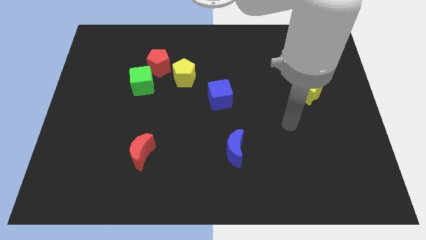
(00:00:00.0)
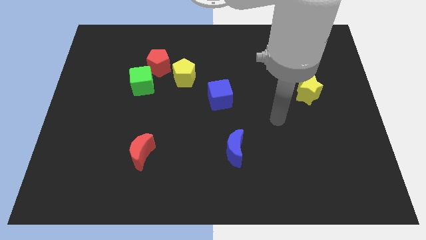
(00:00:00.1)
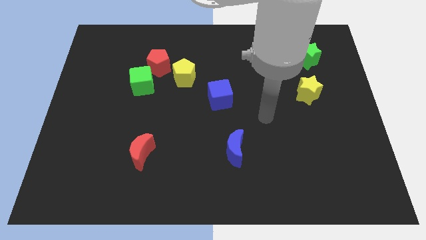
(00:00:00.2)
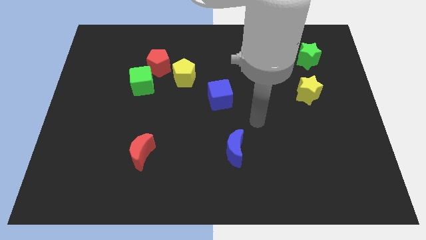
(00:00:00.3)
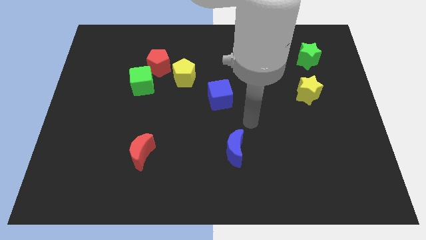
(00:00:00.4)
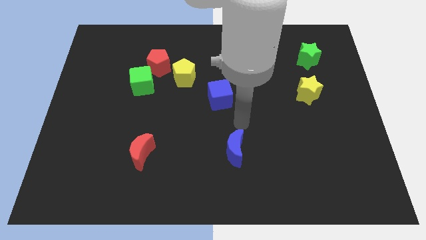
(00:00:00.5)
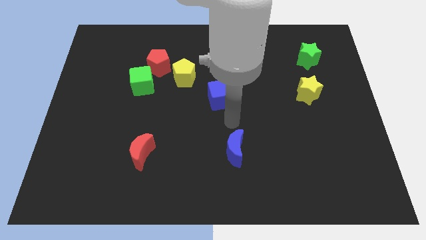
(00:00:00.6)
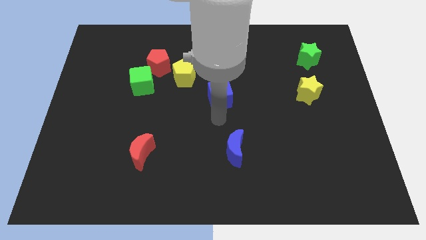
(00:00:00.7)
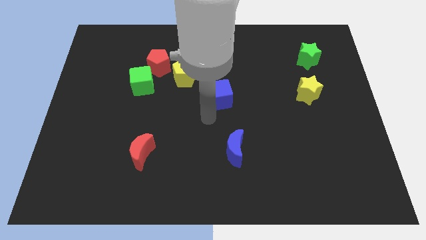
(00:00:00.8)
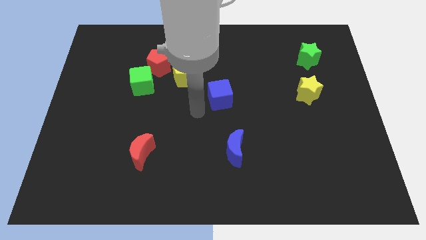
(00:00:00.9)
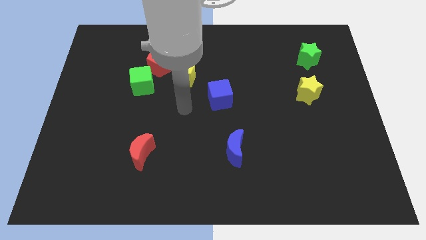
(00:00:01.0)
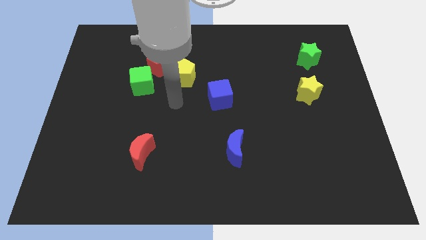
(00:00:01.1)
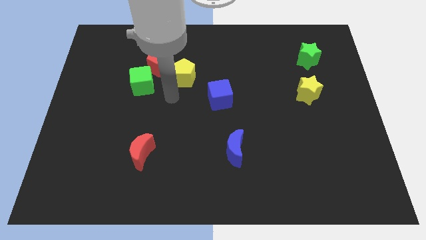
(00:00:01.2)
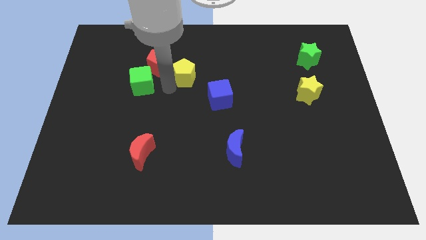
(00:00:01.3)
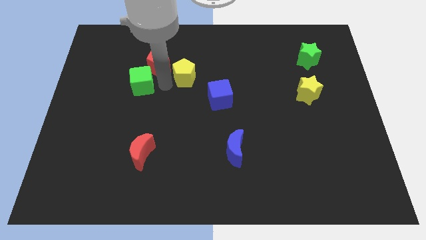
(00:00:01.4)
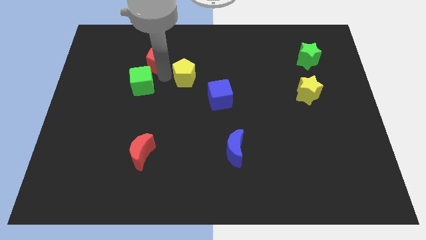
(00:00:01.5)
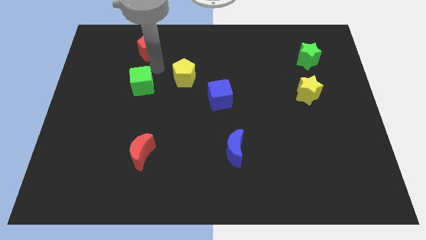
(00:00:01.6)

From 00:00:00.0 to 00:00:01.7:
pull the green cube apart from the red pentagon

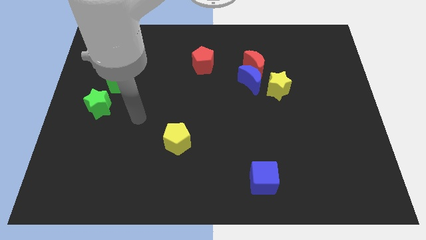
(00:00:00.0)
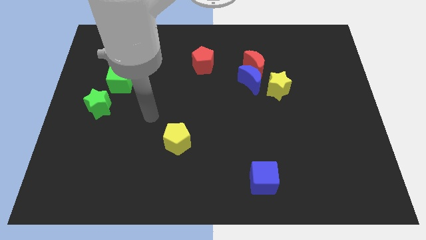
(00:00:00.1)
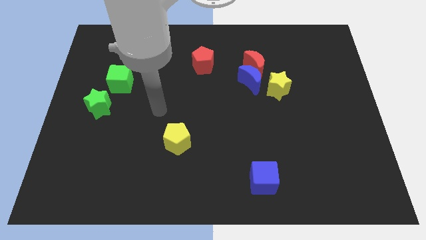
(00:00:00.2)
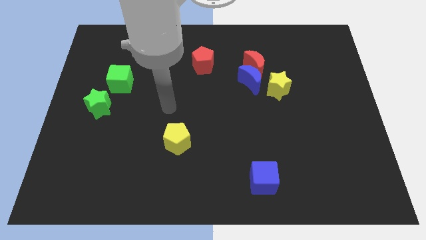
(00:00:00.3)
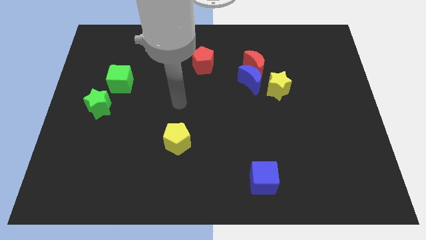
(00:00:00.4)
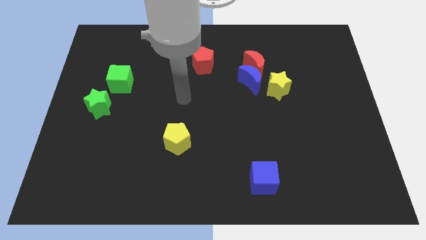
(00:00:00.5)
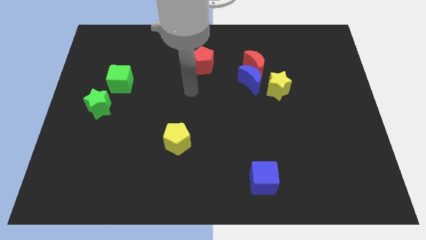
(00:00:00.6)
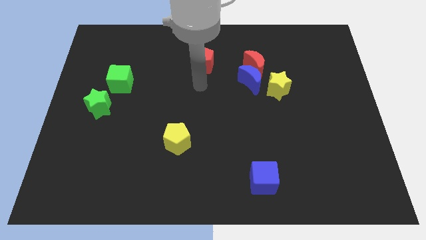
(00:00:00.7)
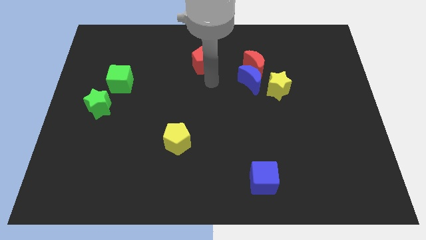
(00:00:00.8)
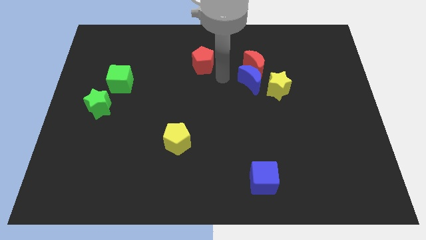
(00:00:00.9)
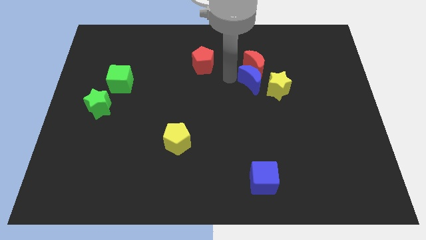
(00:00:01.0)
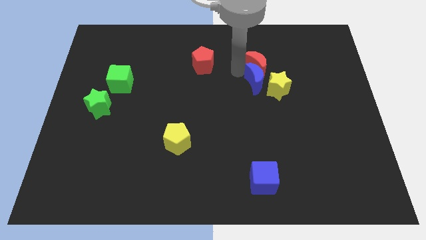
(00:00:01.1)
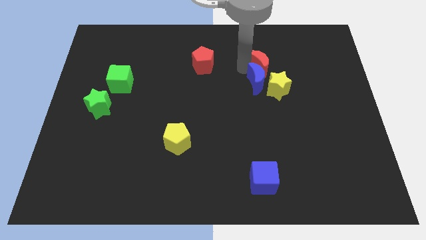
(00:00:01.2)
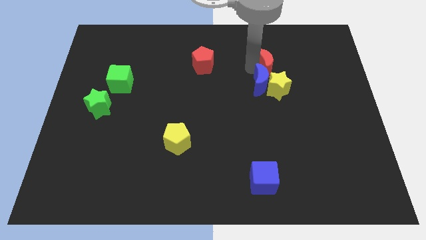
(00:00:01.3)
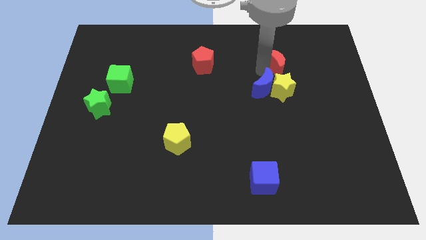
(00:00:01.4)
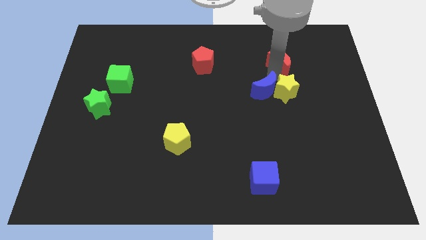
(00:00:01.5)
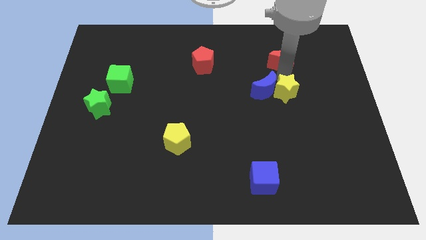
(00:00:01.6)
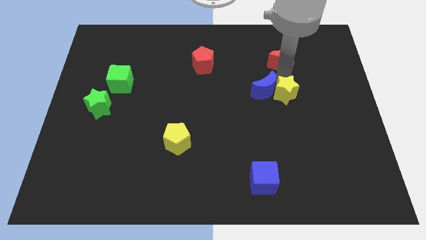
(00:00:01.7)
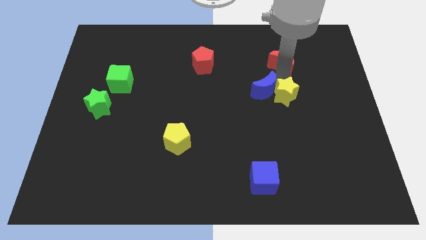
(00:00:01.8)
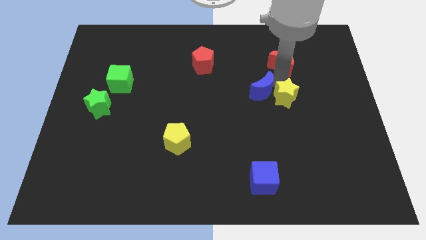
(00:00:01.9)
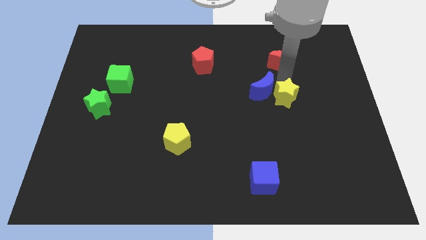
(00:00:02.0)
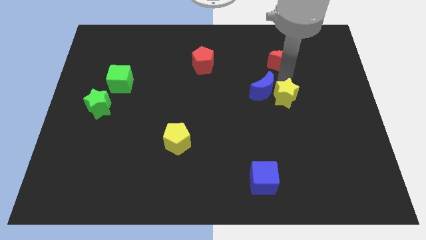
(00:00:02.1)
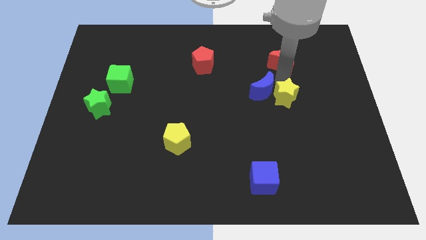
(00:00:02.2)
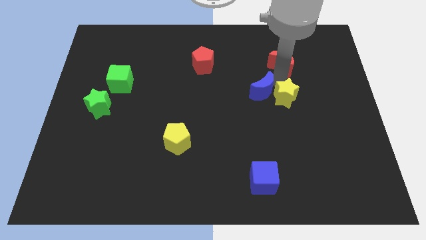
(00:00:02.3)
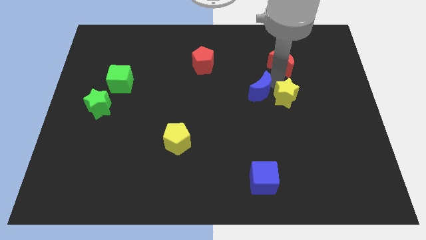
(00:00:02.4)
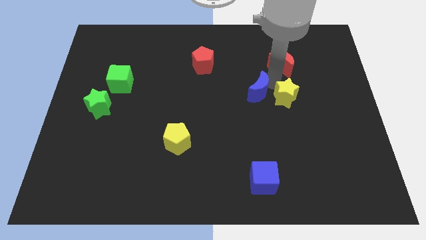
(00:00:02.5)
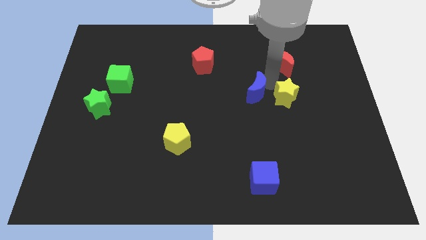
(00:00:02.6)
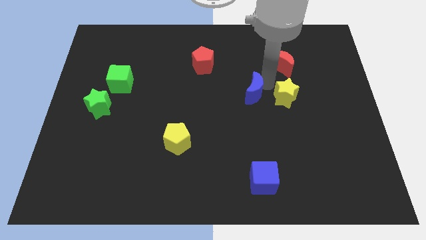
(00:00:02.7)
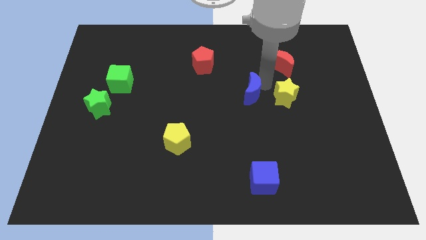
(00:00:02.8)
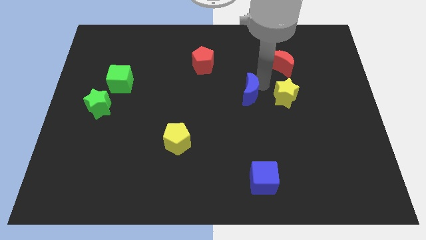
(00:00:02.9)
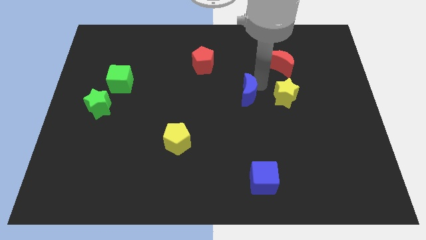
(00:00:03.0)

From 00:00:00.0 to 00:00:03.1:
separate the blue moon from the red moon and yellow star

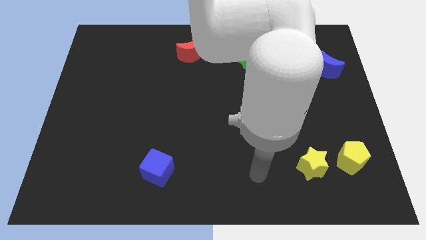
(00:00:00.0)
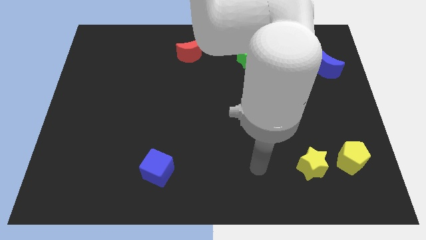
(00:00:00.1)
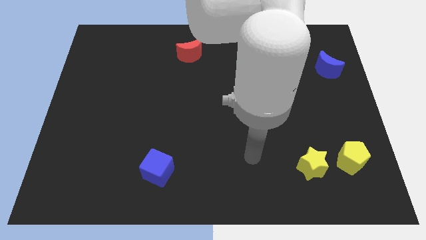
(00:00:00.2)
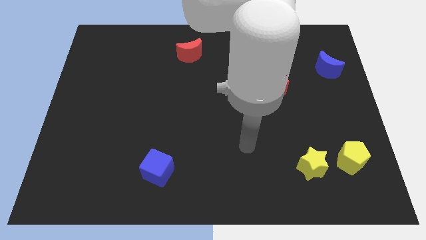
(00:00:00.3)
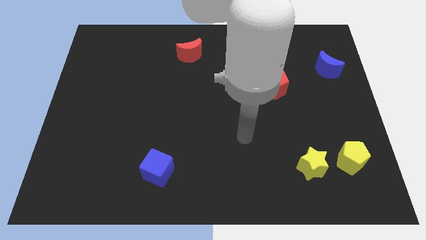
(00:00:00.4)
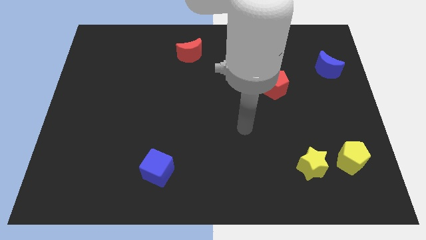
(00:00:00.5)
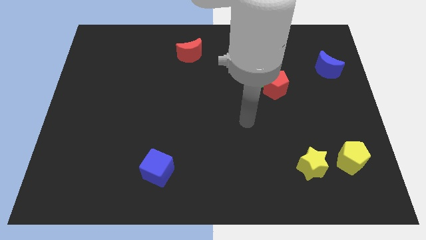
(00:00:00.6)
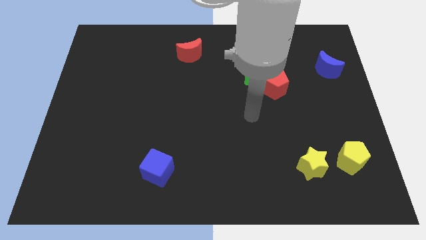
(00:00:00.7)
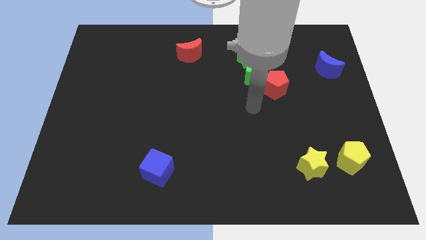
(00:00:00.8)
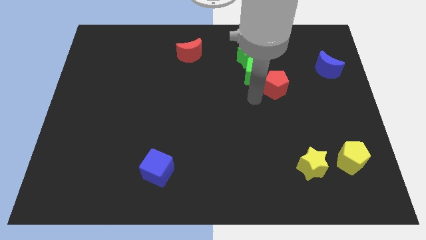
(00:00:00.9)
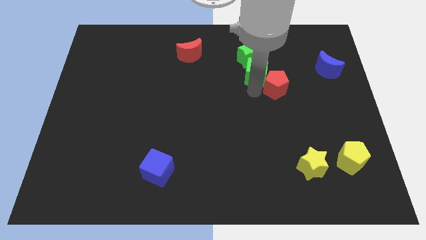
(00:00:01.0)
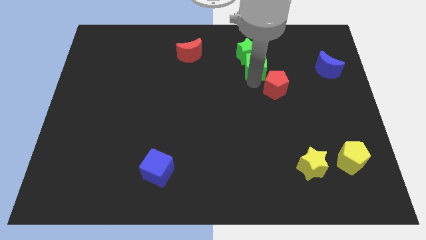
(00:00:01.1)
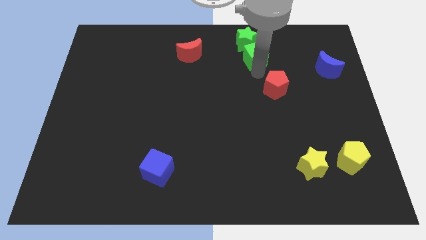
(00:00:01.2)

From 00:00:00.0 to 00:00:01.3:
pull the red pentagon apart from the green cube

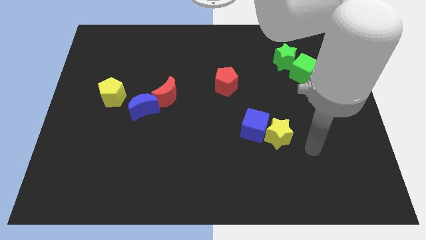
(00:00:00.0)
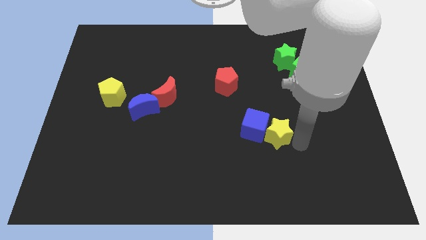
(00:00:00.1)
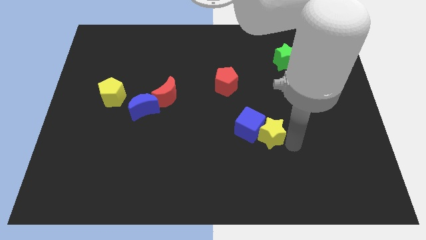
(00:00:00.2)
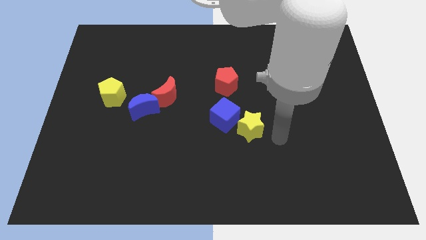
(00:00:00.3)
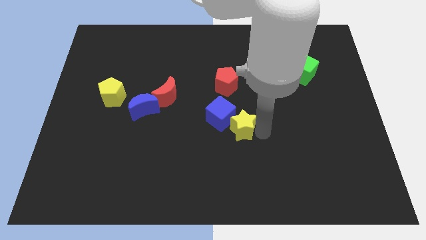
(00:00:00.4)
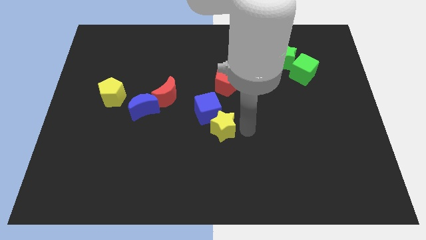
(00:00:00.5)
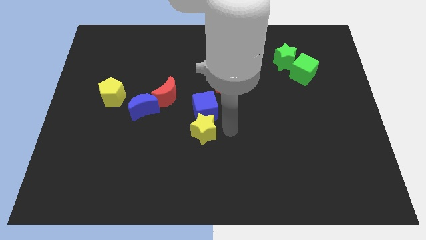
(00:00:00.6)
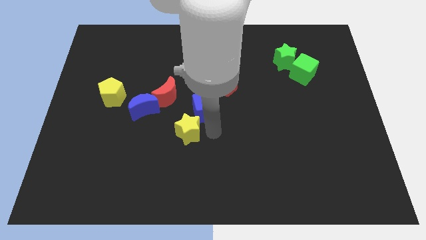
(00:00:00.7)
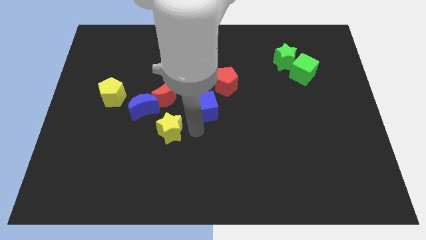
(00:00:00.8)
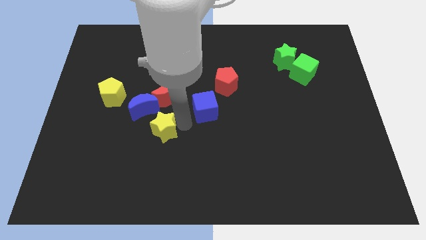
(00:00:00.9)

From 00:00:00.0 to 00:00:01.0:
move the blue cube away from the yellow star

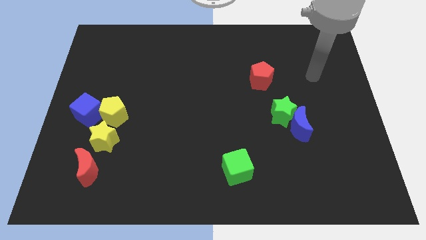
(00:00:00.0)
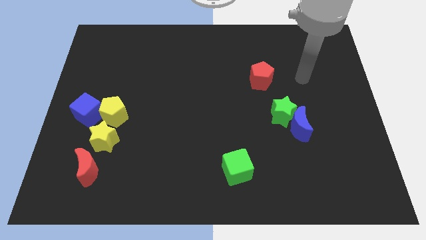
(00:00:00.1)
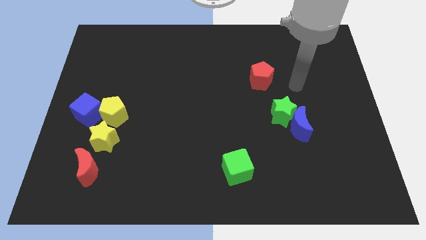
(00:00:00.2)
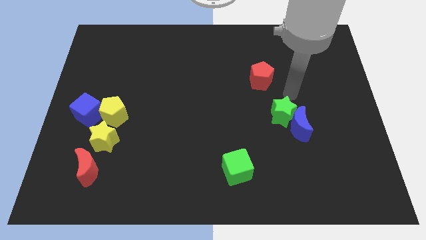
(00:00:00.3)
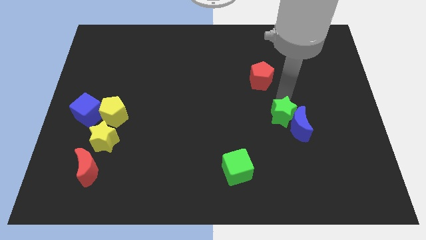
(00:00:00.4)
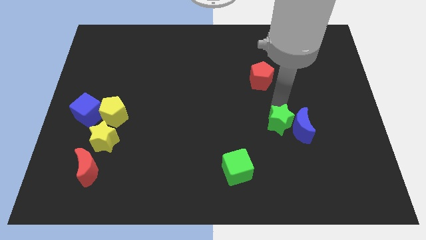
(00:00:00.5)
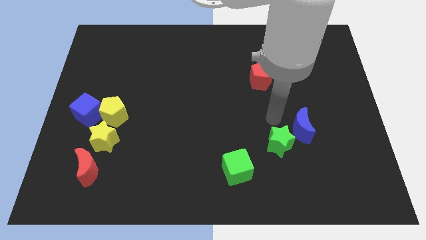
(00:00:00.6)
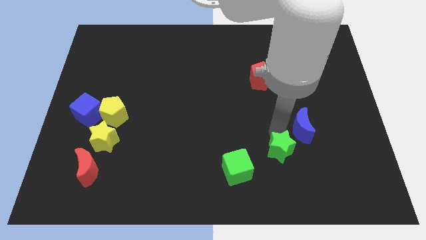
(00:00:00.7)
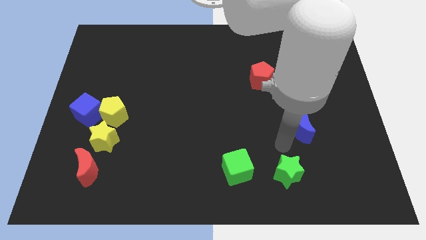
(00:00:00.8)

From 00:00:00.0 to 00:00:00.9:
move the blue moon away from the green star

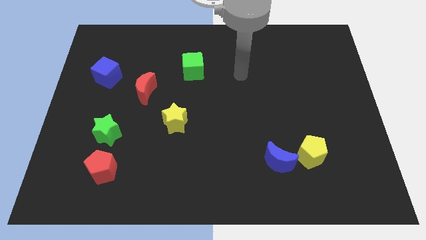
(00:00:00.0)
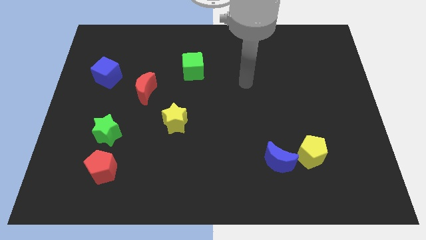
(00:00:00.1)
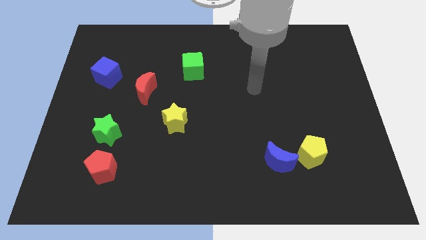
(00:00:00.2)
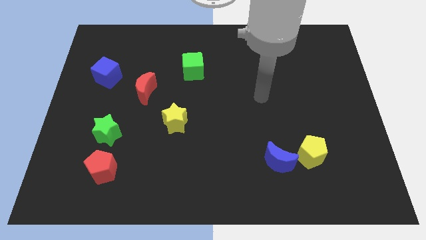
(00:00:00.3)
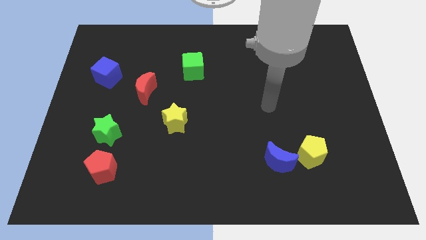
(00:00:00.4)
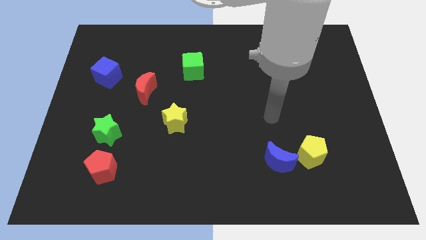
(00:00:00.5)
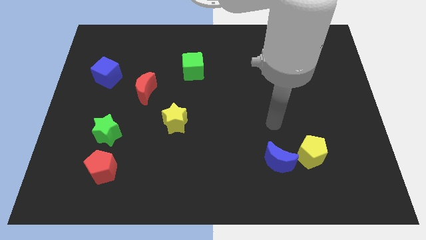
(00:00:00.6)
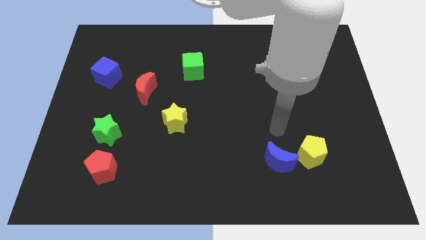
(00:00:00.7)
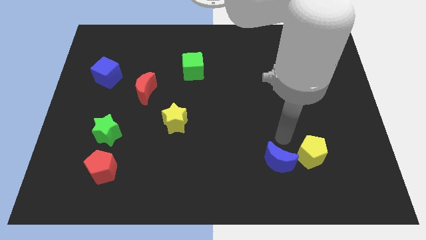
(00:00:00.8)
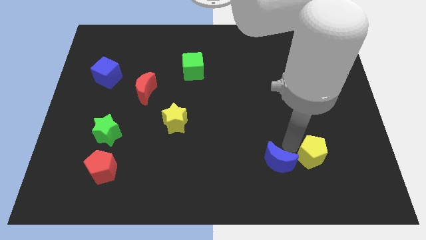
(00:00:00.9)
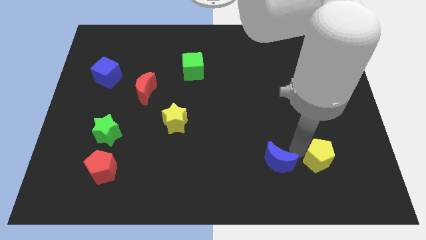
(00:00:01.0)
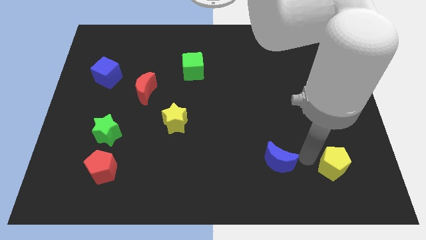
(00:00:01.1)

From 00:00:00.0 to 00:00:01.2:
move the blue moon away from the yellow pentagon
